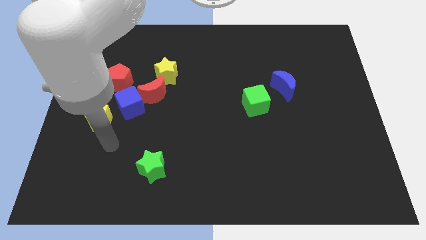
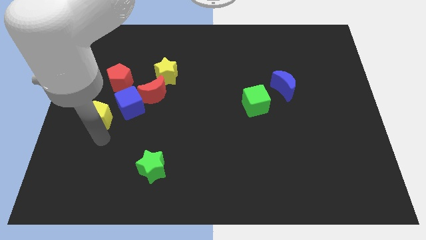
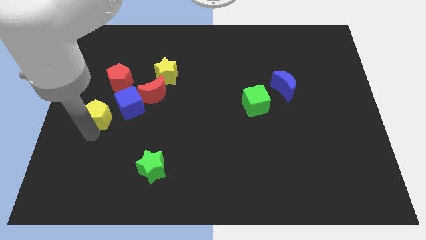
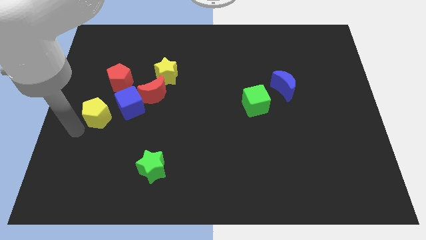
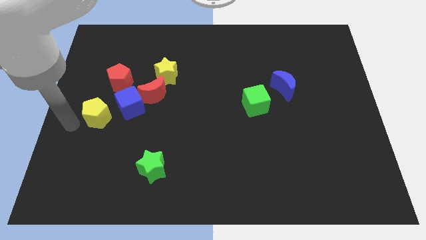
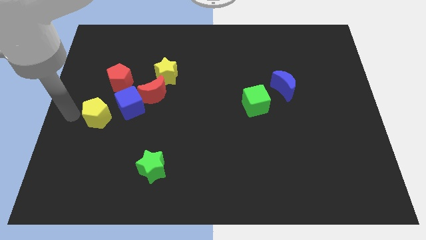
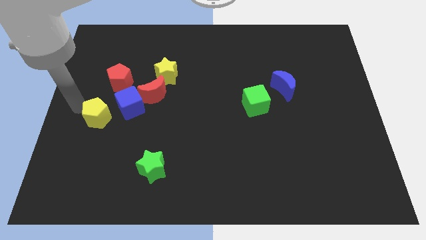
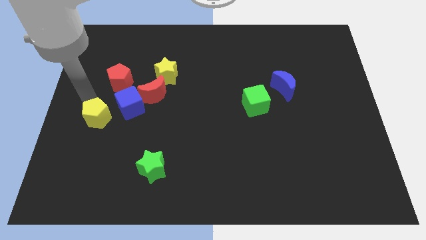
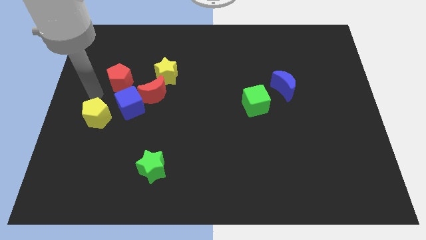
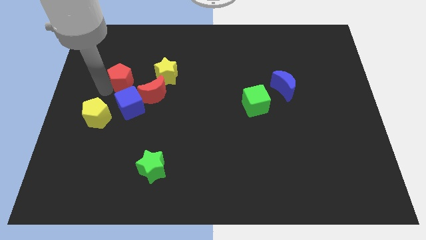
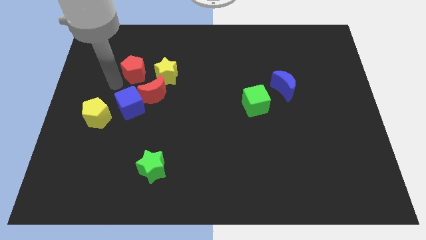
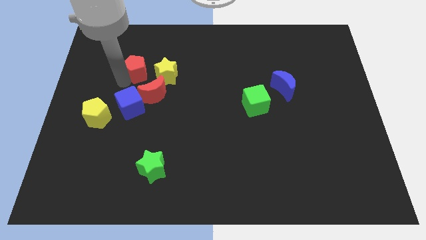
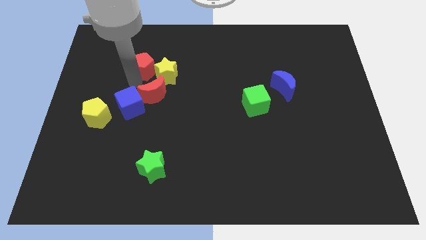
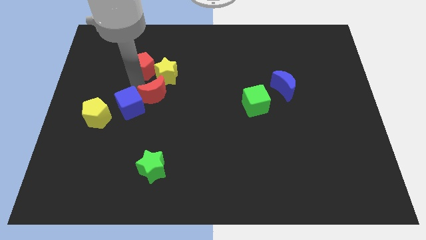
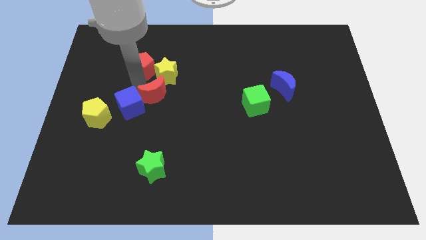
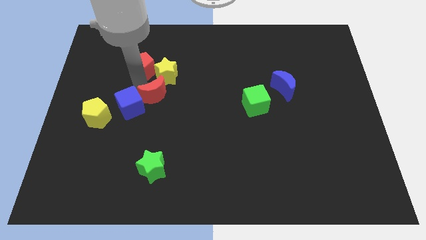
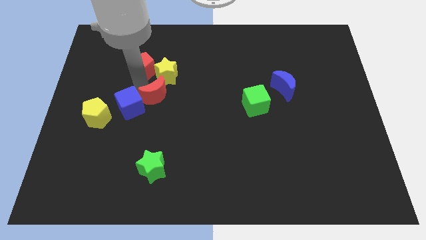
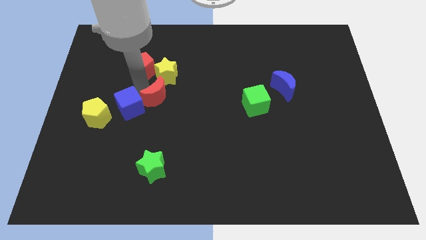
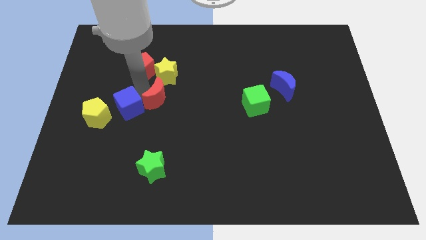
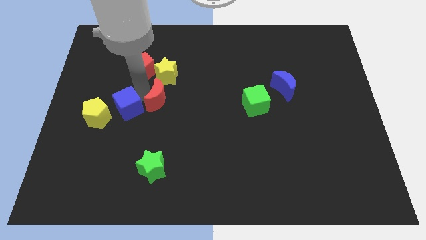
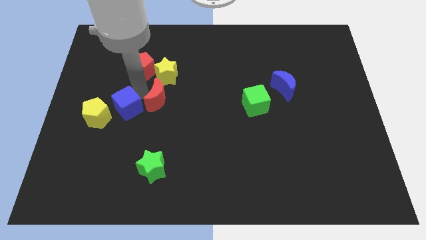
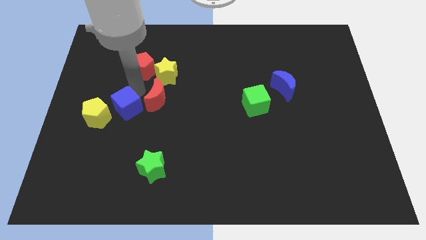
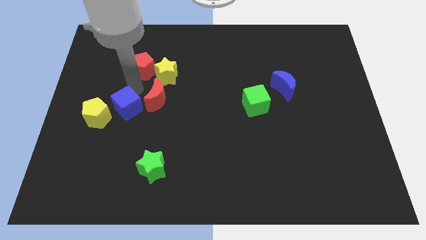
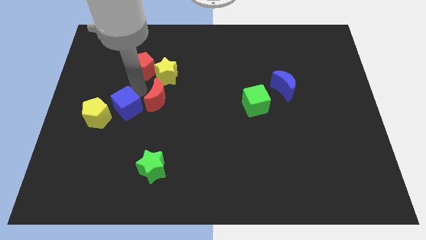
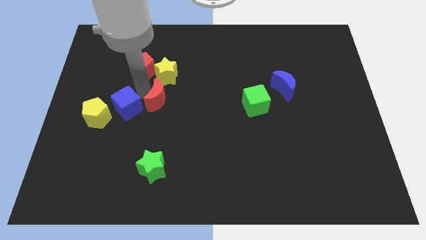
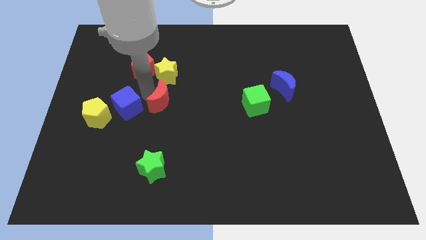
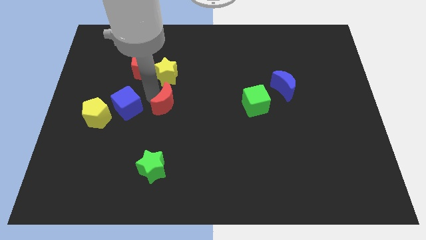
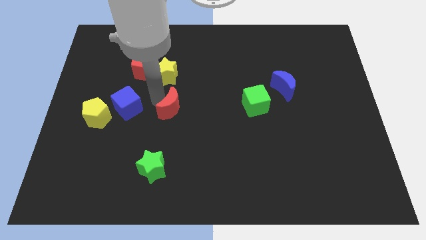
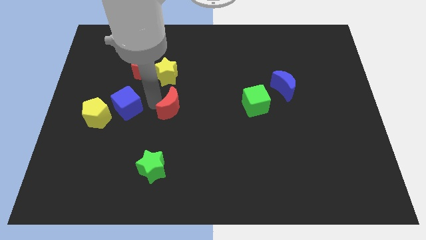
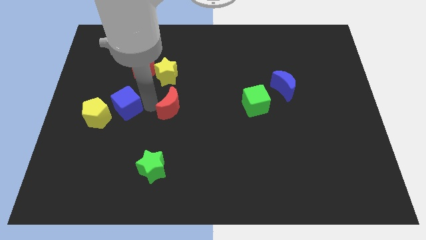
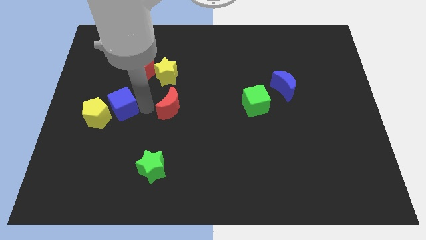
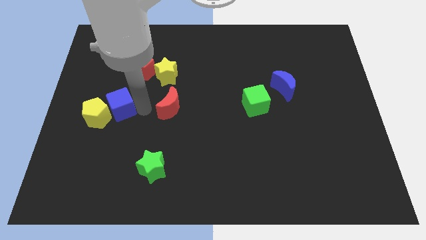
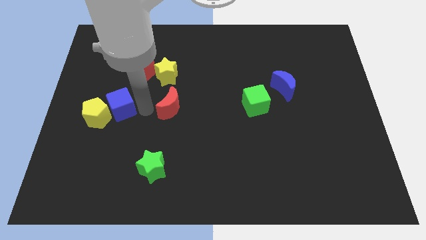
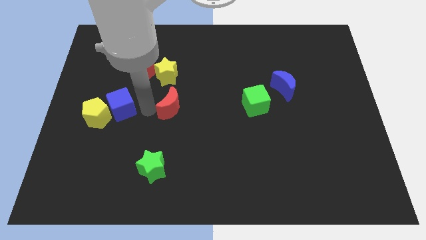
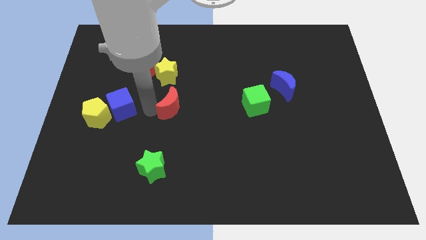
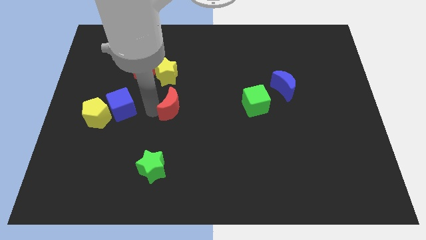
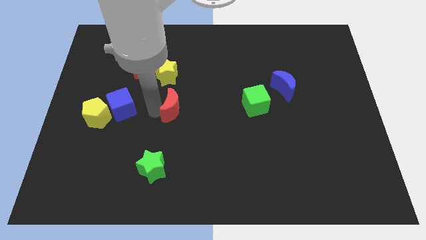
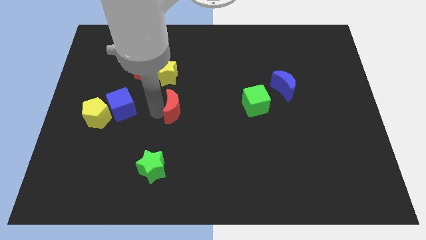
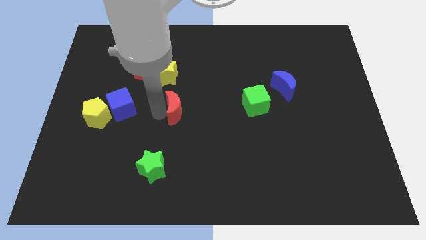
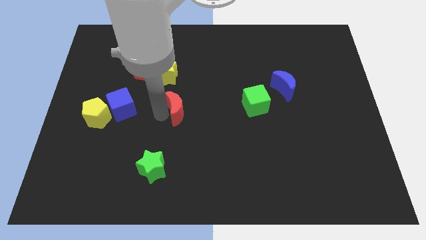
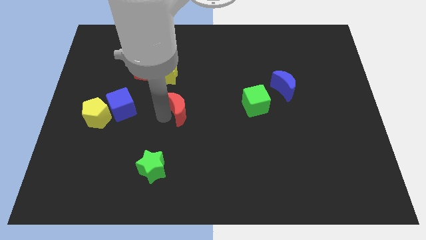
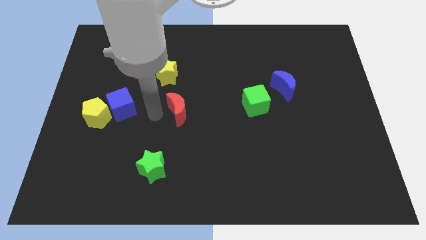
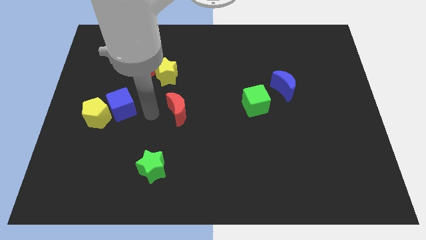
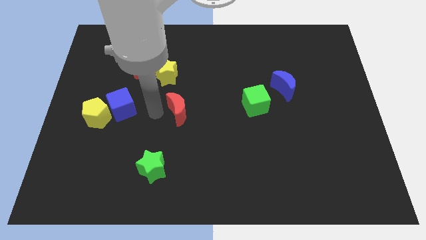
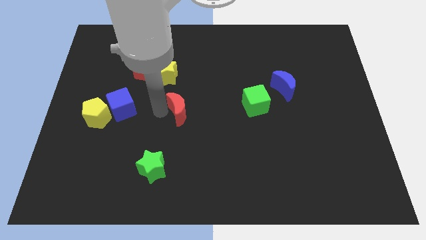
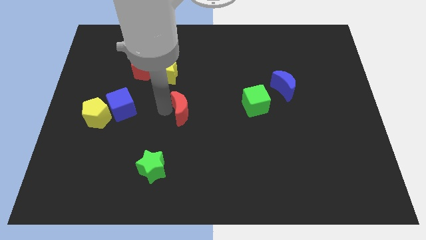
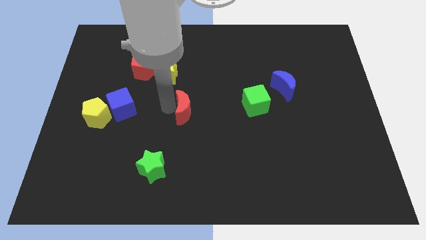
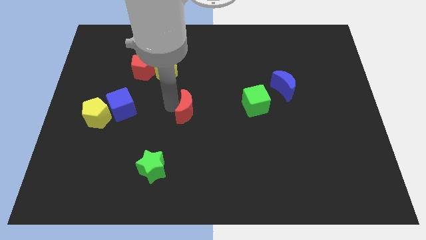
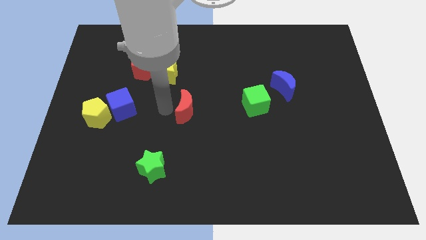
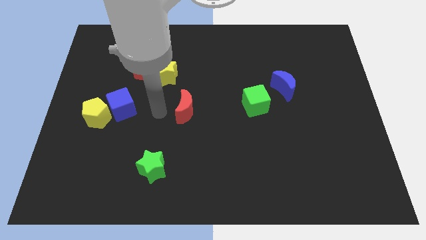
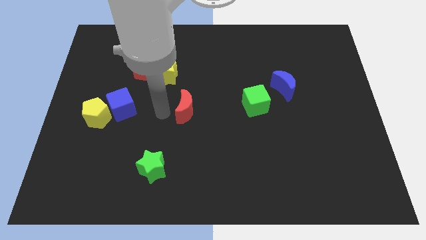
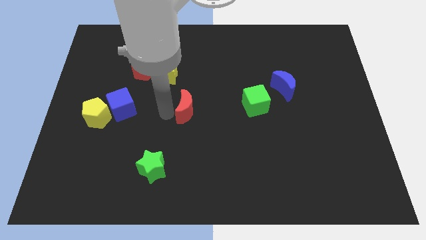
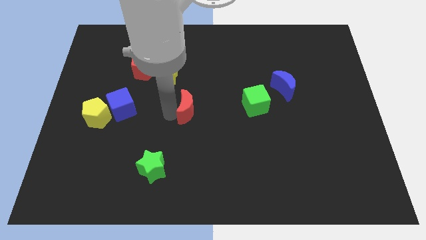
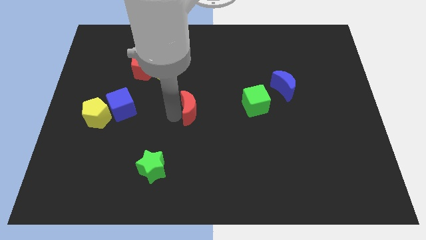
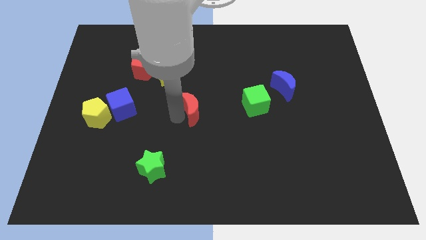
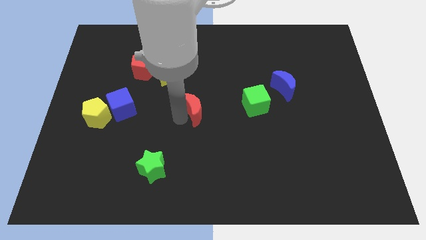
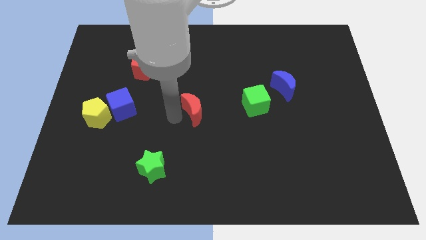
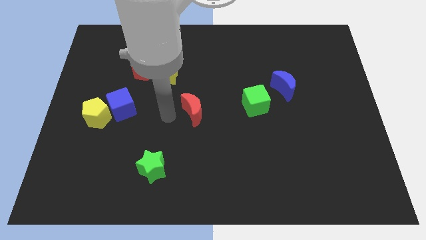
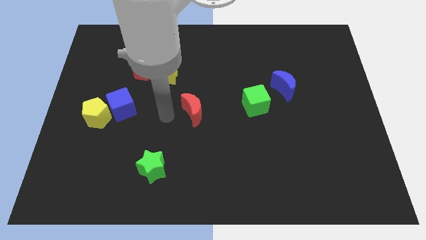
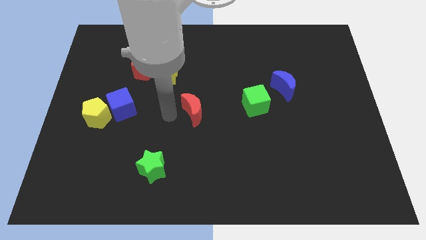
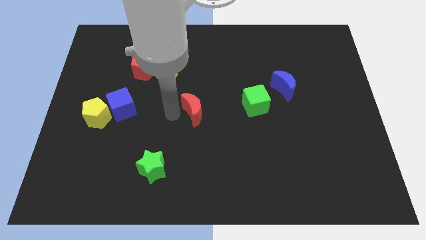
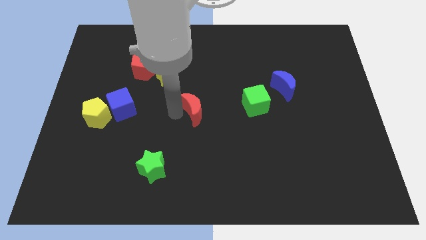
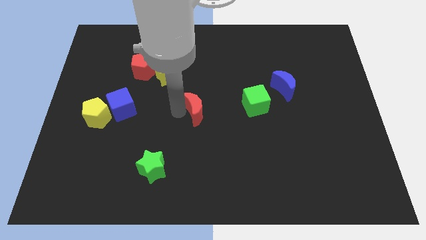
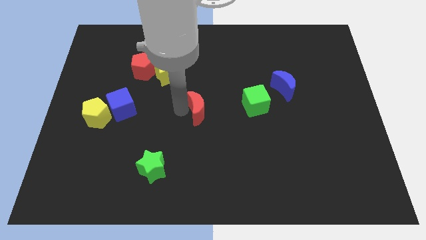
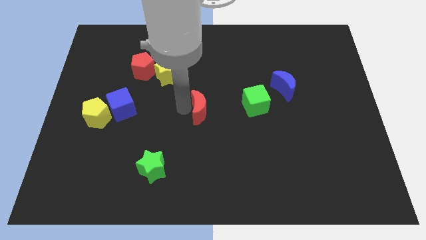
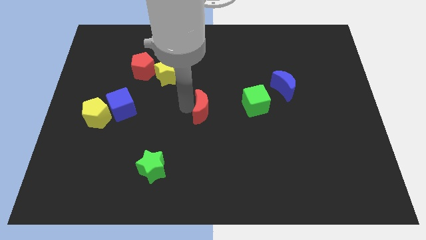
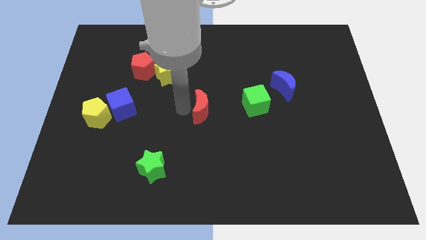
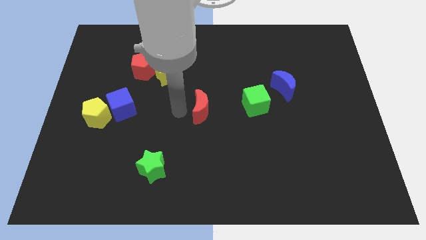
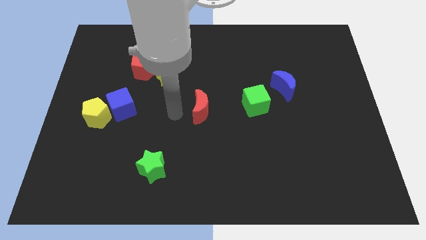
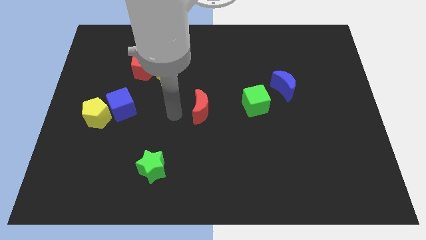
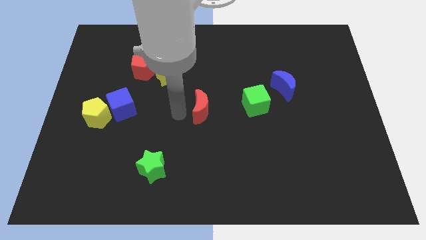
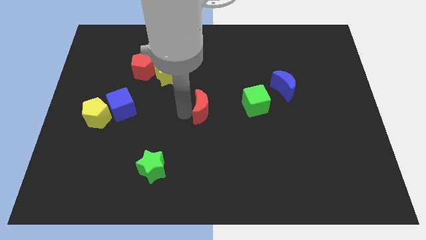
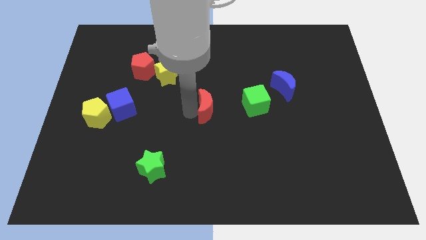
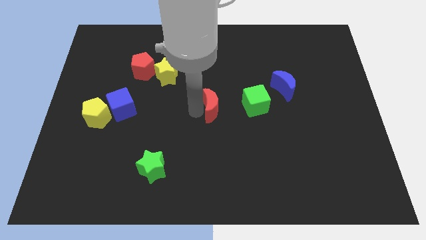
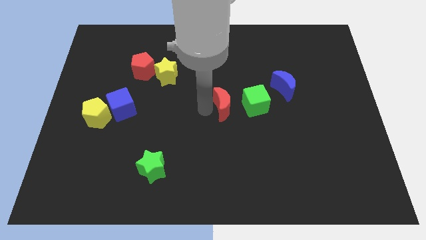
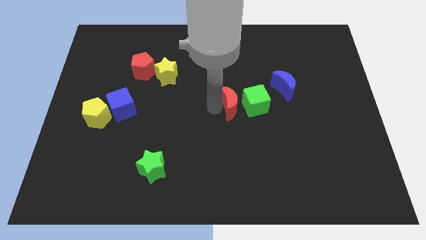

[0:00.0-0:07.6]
put the red moon close to the green cube
